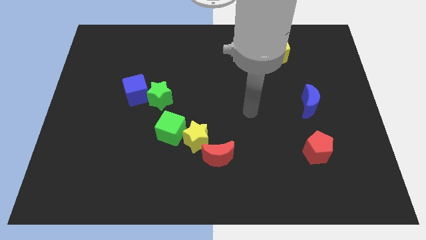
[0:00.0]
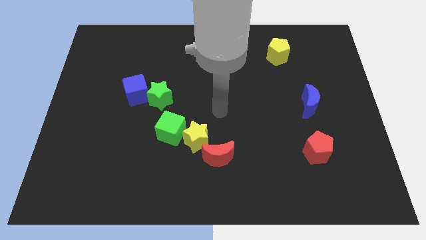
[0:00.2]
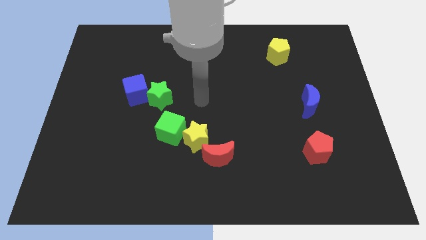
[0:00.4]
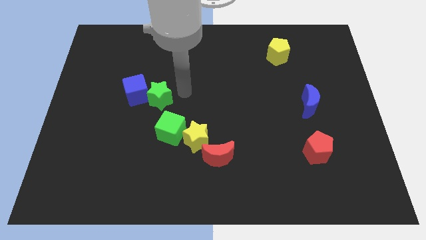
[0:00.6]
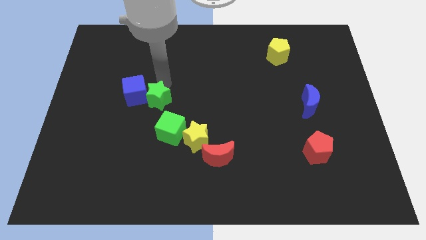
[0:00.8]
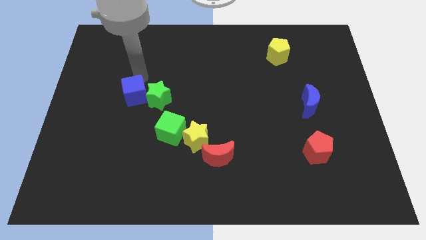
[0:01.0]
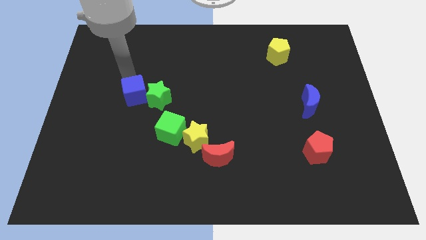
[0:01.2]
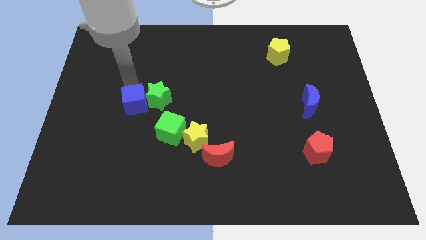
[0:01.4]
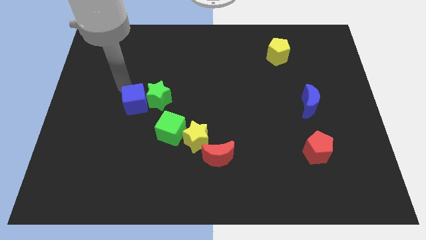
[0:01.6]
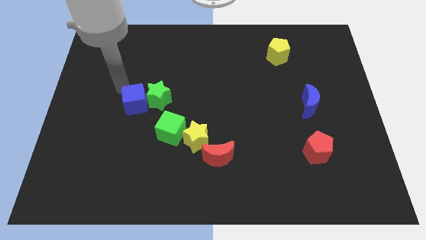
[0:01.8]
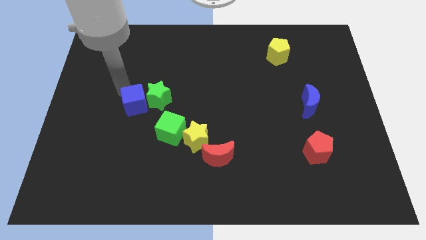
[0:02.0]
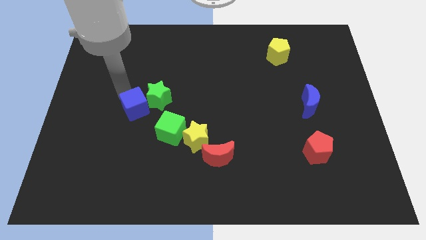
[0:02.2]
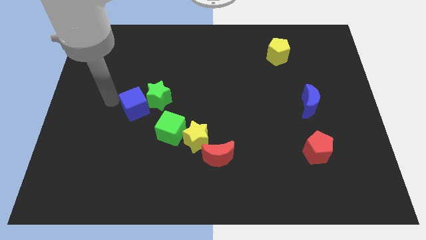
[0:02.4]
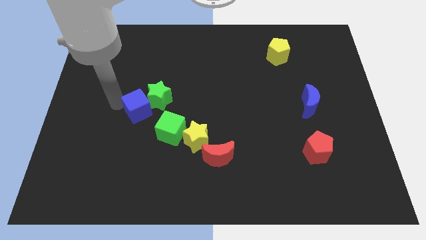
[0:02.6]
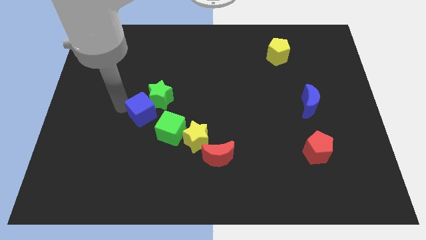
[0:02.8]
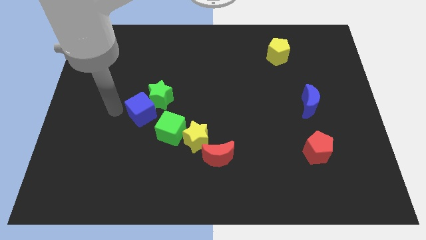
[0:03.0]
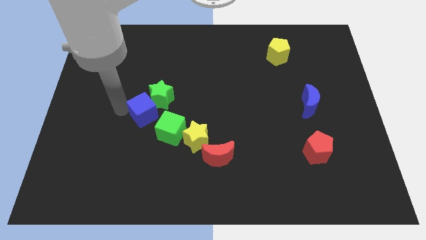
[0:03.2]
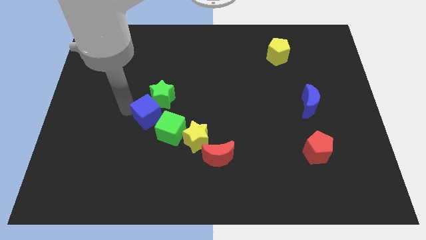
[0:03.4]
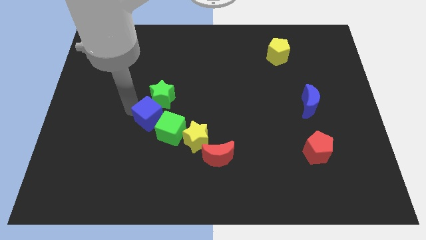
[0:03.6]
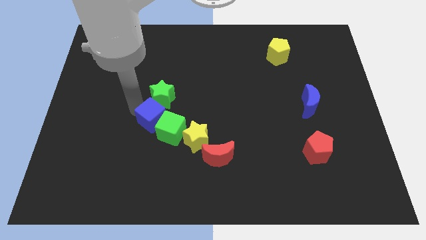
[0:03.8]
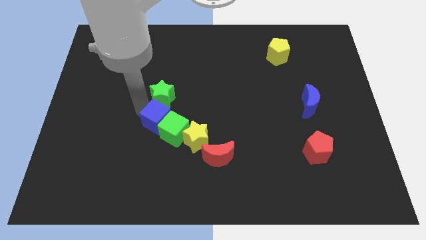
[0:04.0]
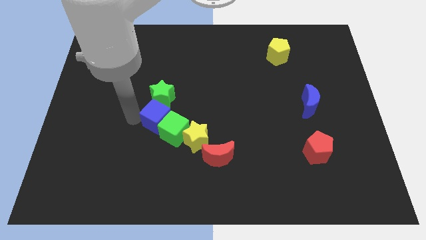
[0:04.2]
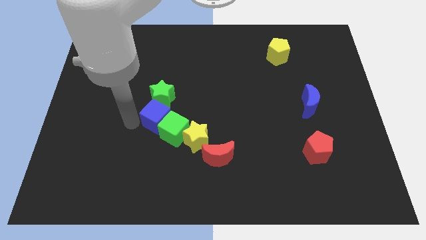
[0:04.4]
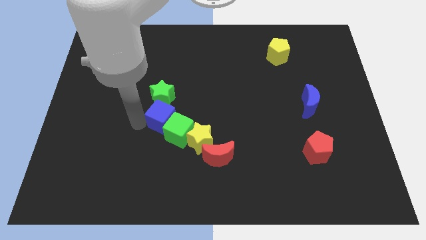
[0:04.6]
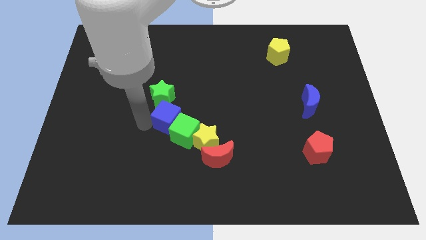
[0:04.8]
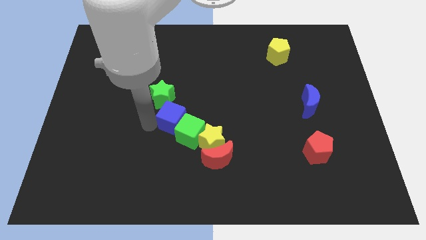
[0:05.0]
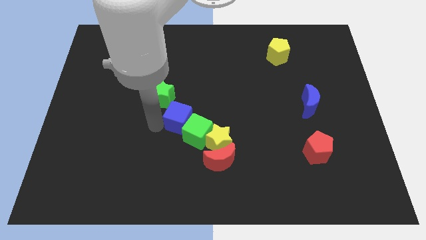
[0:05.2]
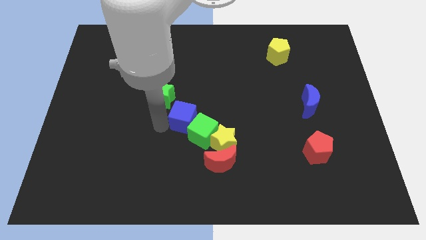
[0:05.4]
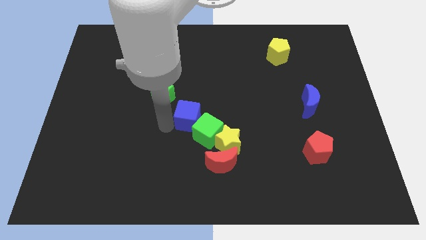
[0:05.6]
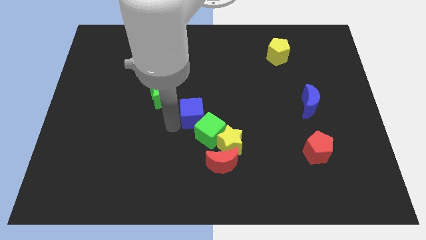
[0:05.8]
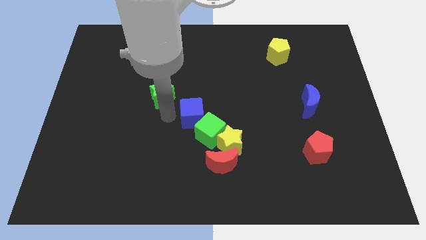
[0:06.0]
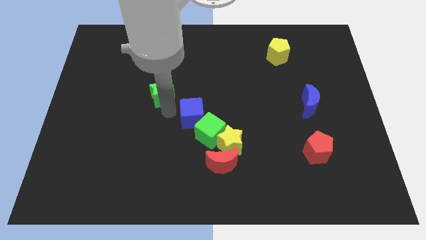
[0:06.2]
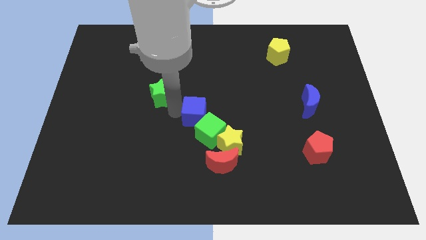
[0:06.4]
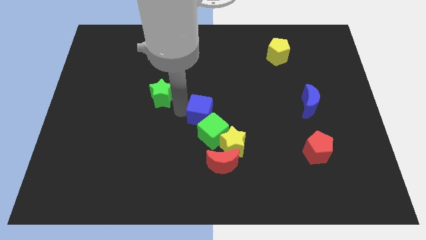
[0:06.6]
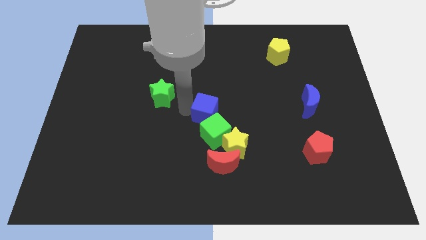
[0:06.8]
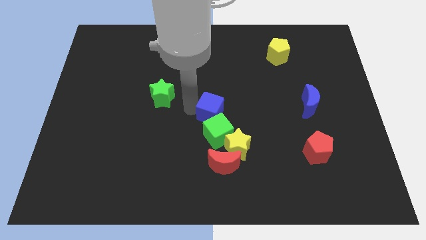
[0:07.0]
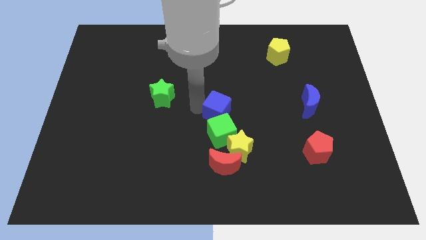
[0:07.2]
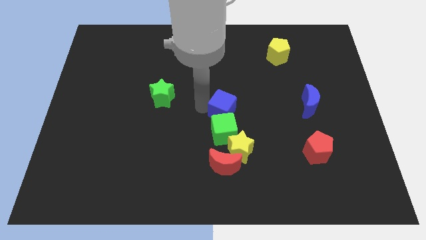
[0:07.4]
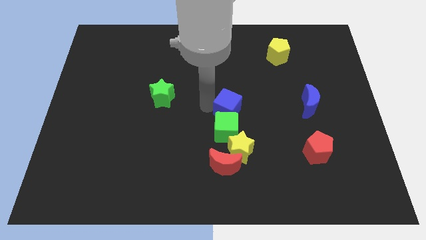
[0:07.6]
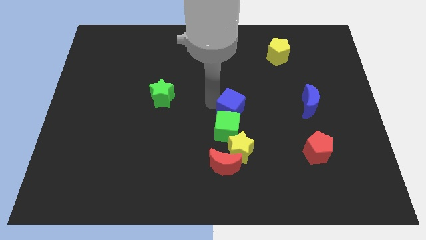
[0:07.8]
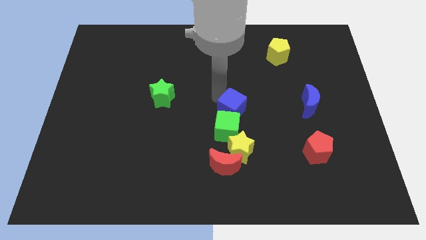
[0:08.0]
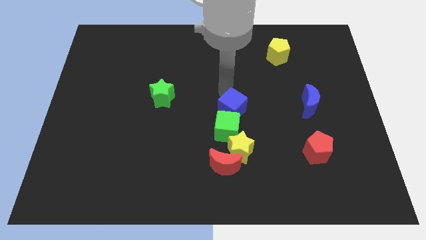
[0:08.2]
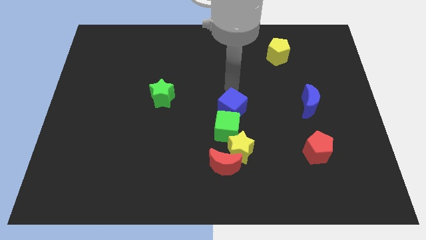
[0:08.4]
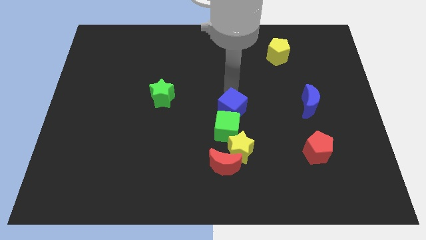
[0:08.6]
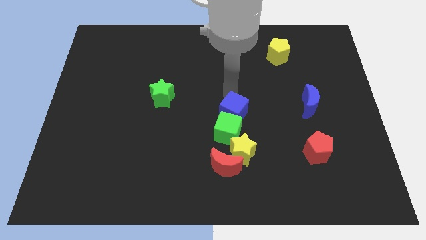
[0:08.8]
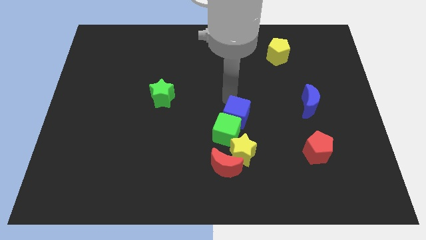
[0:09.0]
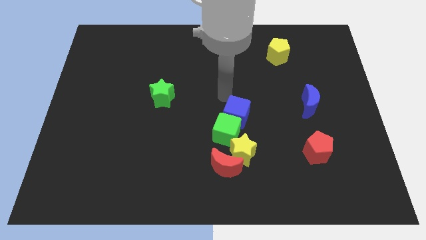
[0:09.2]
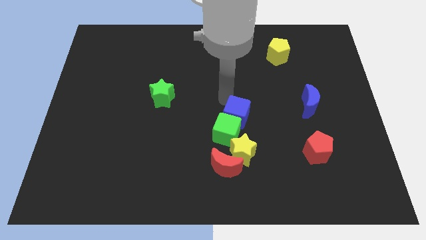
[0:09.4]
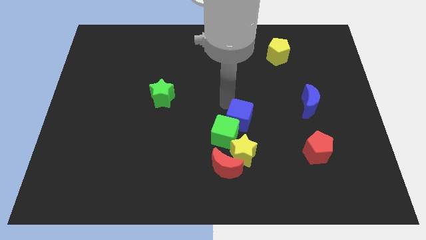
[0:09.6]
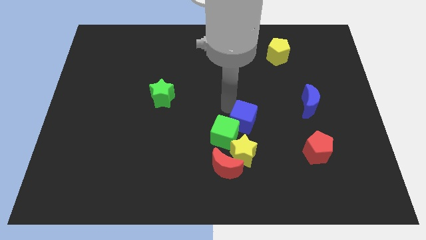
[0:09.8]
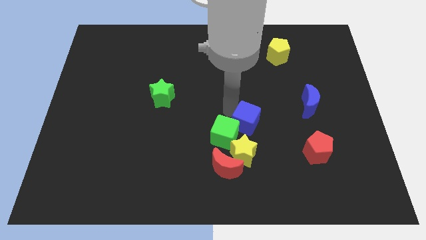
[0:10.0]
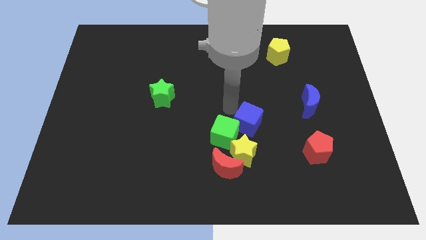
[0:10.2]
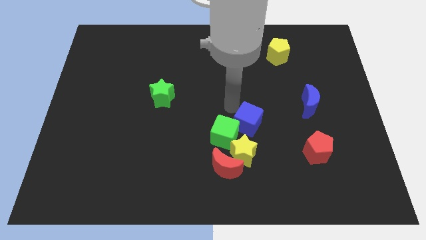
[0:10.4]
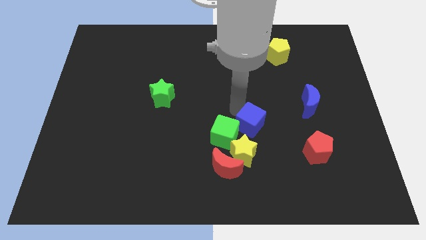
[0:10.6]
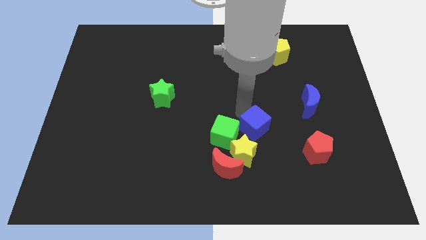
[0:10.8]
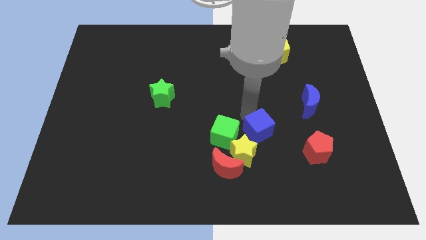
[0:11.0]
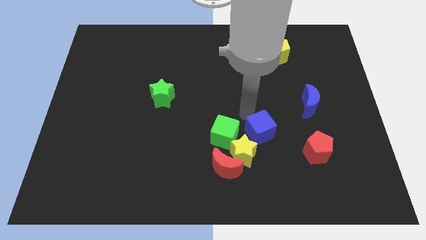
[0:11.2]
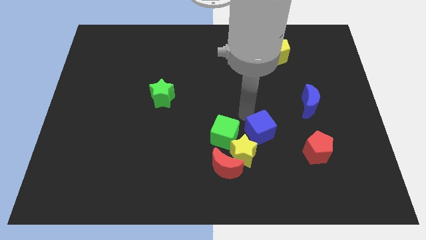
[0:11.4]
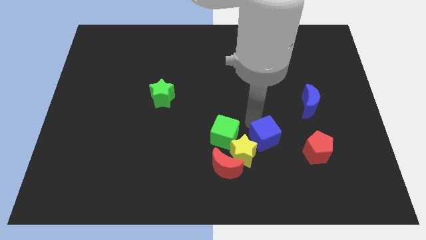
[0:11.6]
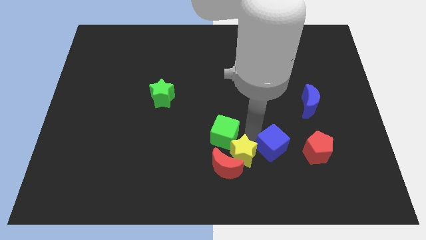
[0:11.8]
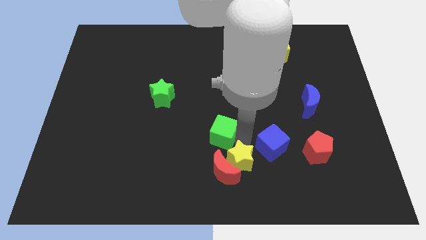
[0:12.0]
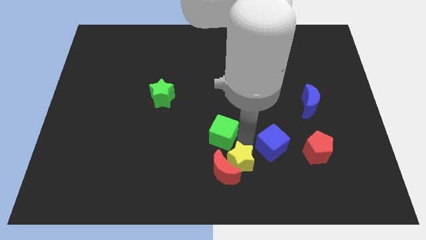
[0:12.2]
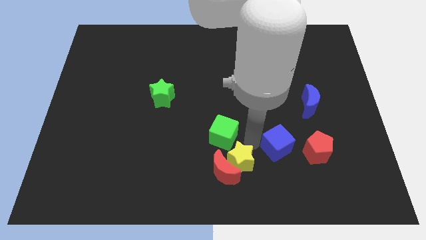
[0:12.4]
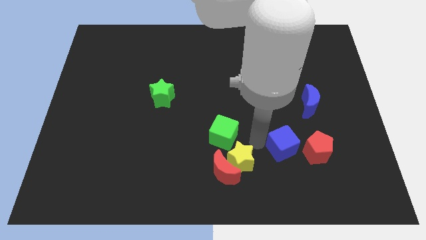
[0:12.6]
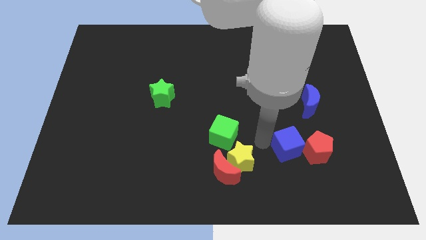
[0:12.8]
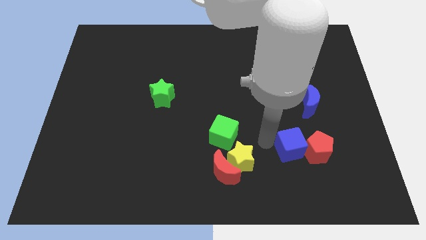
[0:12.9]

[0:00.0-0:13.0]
slide the blue cube next to the red pentagon

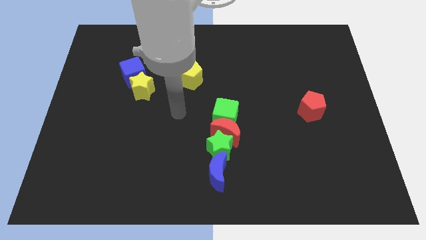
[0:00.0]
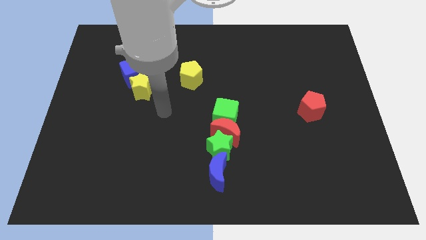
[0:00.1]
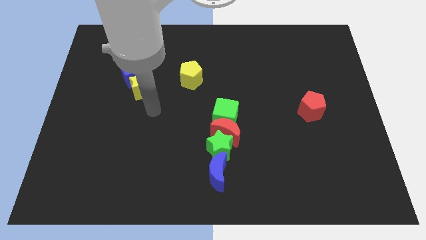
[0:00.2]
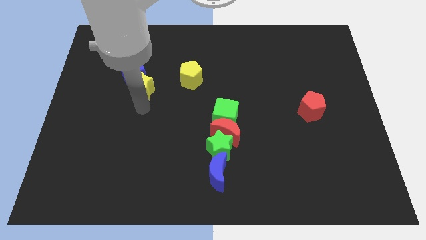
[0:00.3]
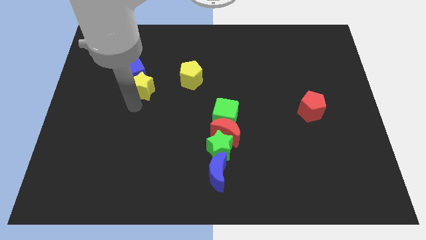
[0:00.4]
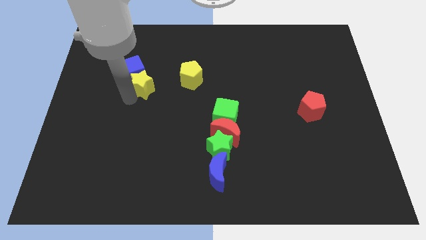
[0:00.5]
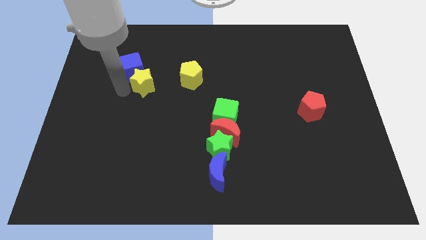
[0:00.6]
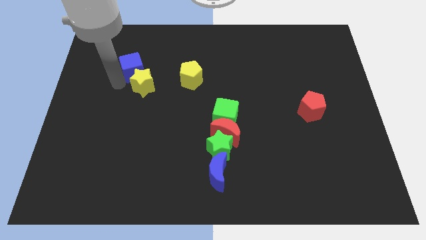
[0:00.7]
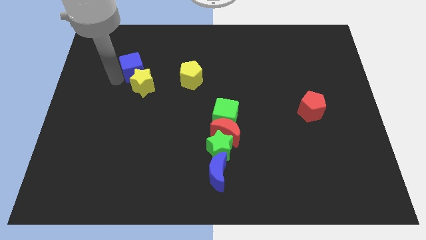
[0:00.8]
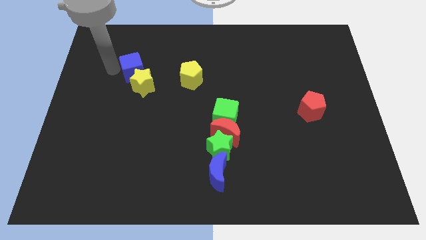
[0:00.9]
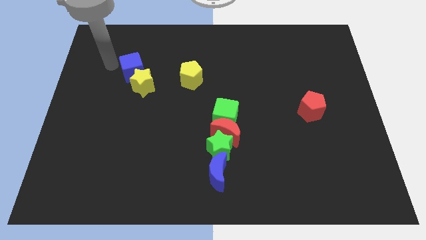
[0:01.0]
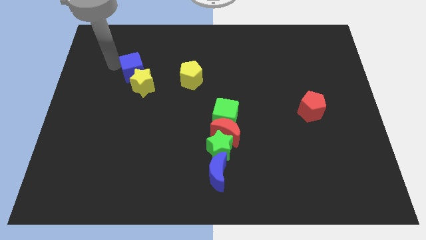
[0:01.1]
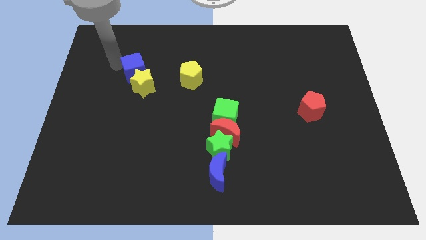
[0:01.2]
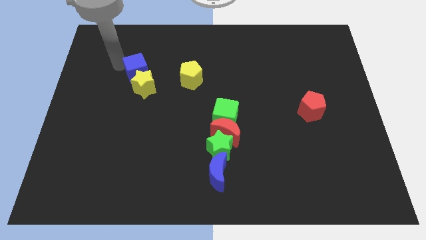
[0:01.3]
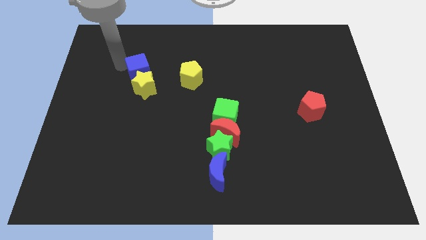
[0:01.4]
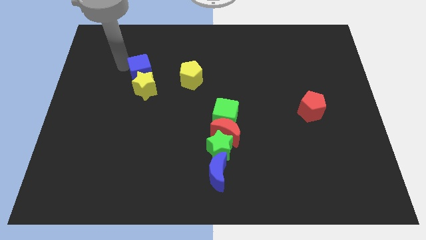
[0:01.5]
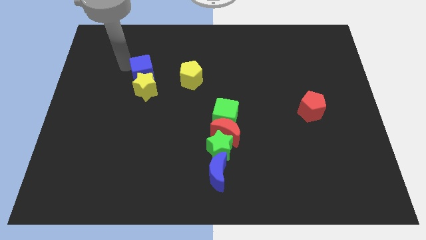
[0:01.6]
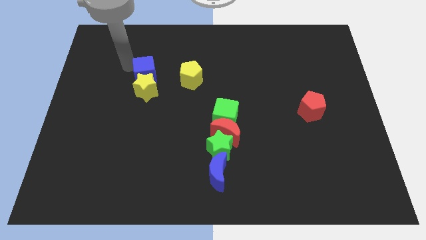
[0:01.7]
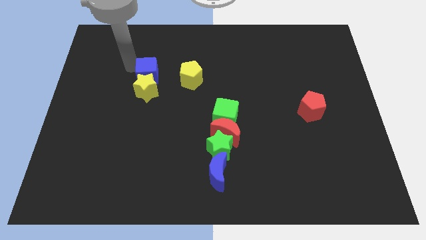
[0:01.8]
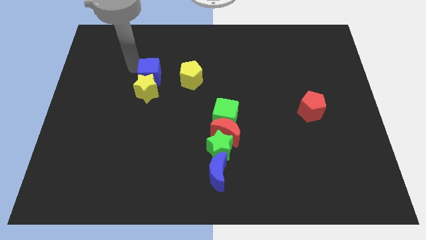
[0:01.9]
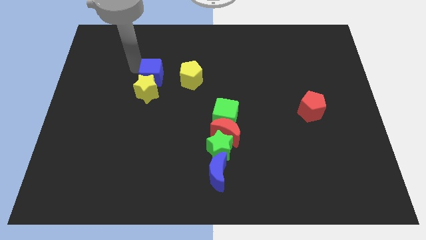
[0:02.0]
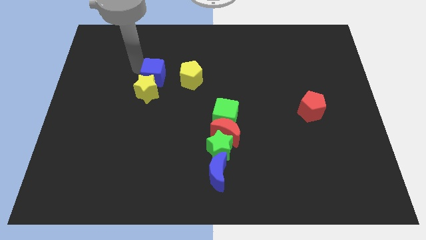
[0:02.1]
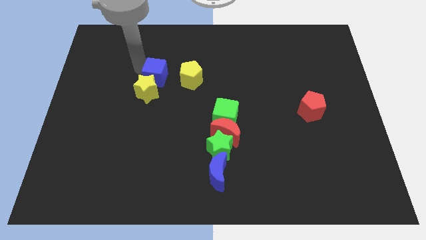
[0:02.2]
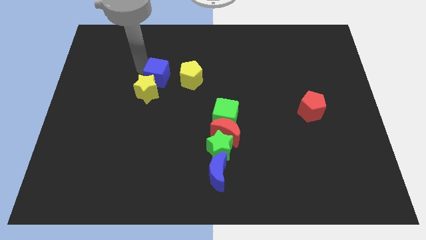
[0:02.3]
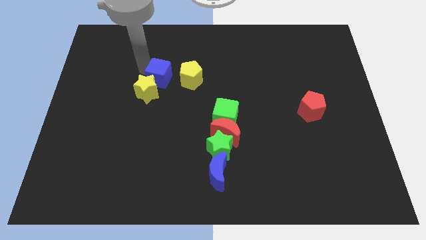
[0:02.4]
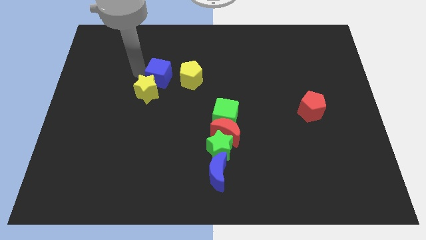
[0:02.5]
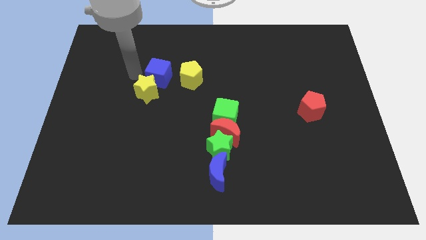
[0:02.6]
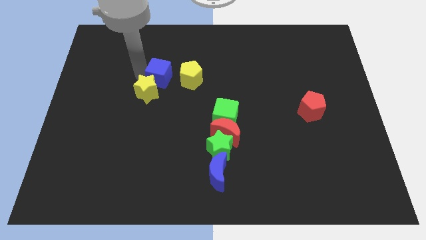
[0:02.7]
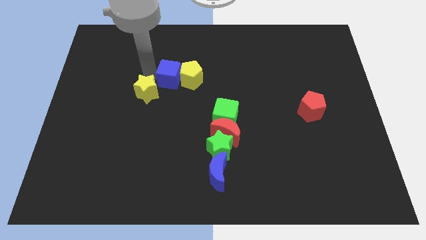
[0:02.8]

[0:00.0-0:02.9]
slide the blue cube to the yellow pentagon
